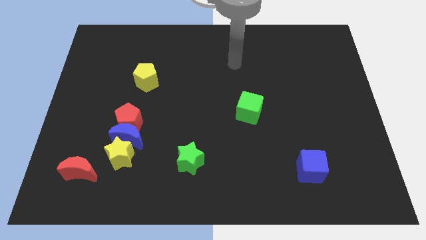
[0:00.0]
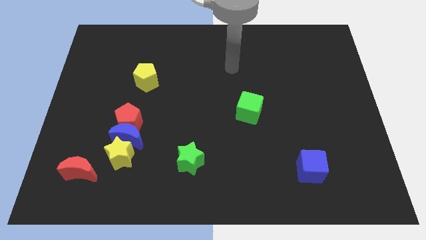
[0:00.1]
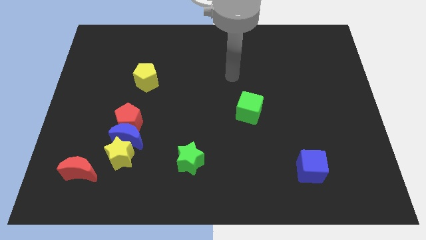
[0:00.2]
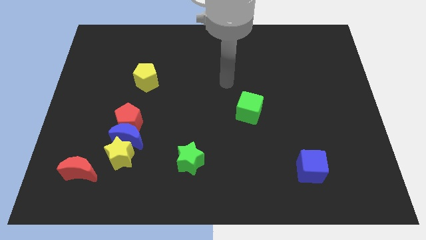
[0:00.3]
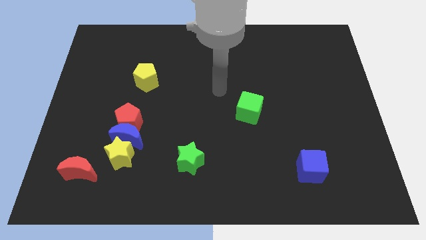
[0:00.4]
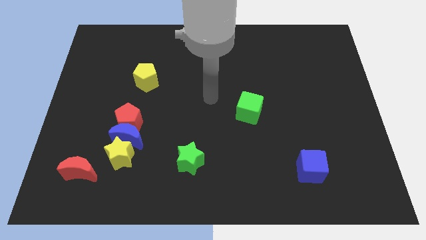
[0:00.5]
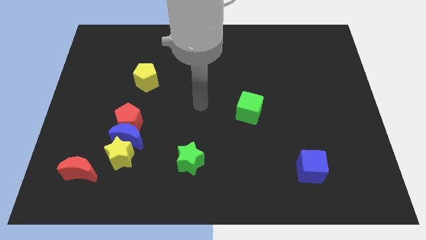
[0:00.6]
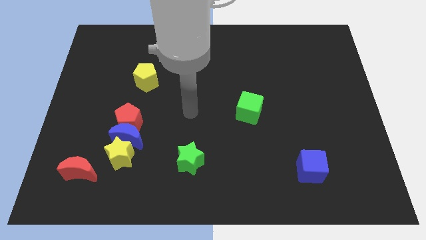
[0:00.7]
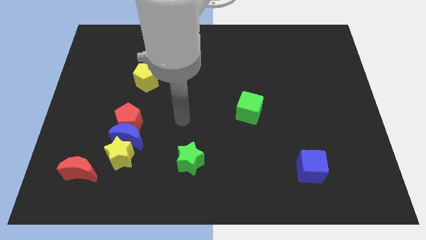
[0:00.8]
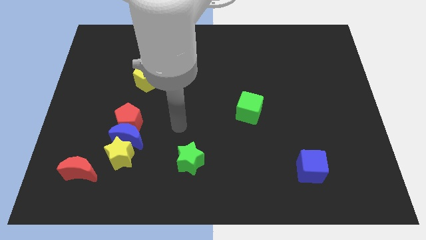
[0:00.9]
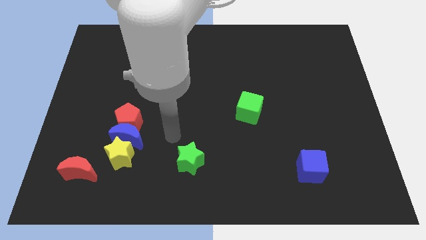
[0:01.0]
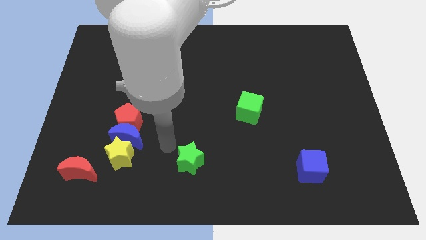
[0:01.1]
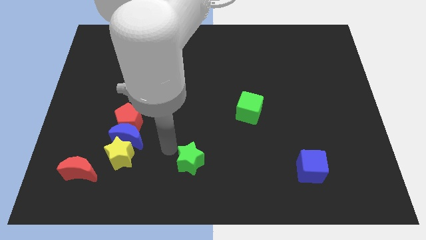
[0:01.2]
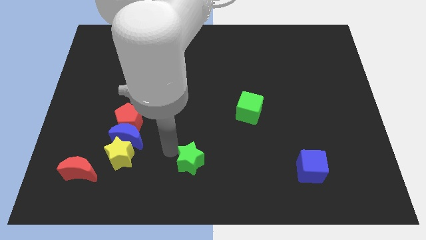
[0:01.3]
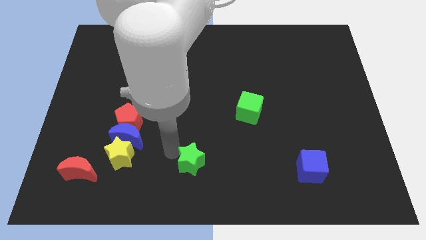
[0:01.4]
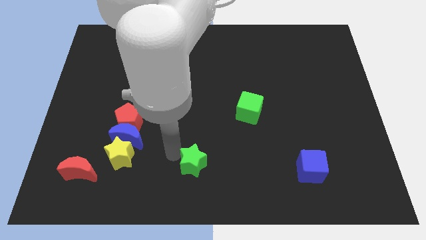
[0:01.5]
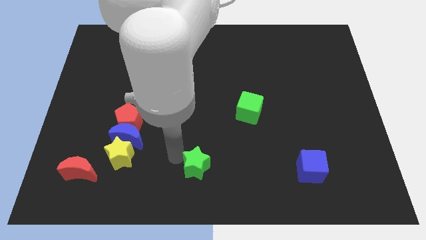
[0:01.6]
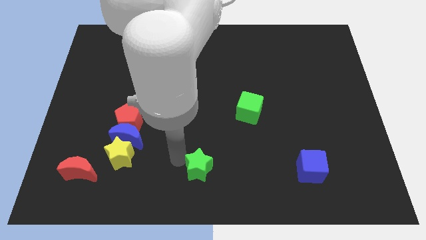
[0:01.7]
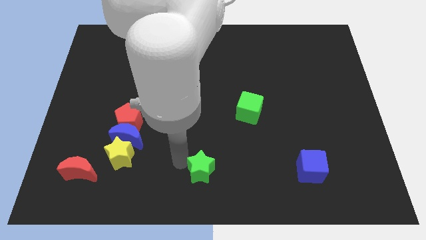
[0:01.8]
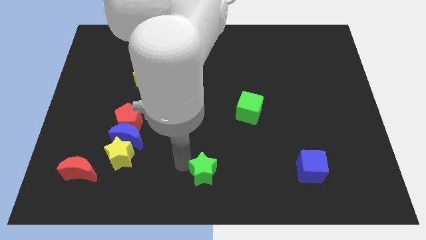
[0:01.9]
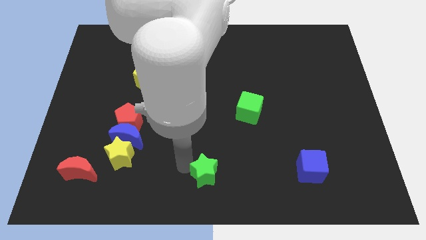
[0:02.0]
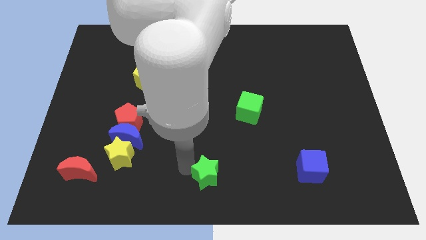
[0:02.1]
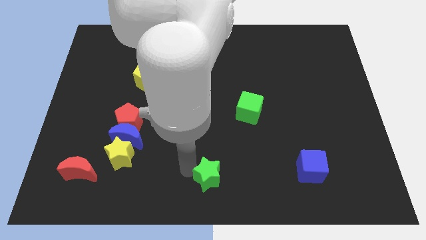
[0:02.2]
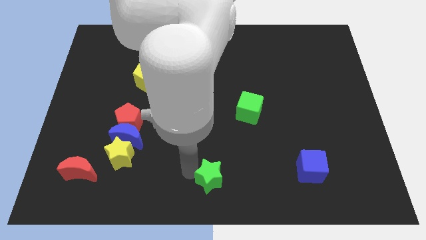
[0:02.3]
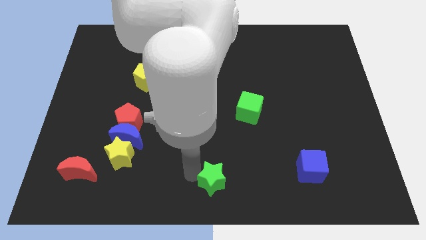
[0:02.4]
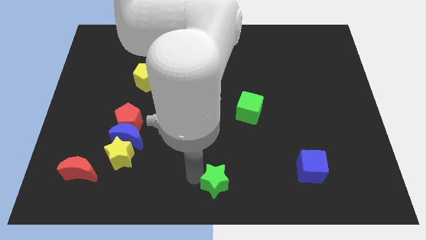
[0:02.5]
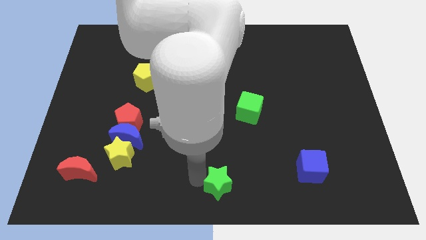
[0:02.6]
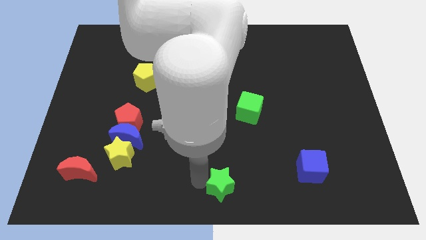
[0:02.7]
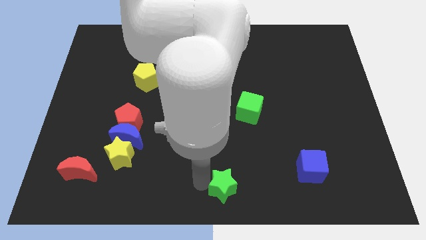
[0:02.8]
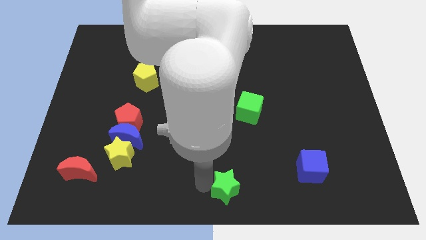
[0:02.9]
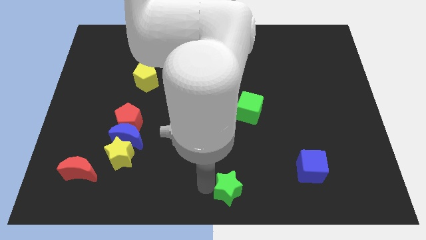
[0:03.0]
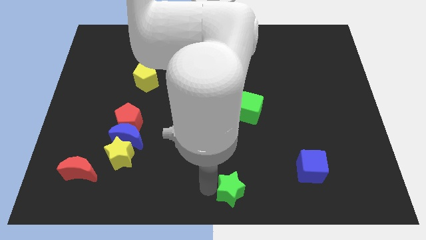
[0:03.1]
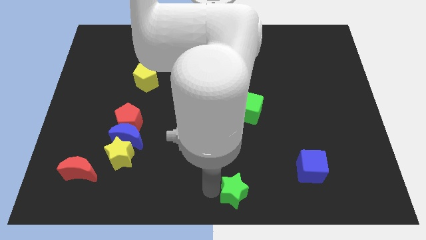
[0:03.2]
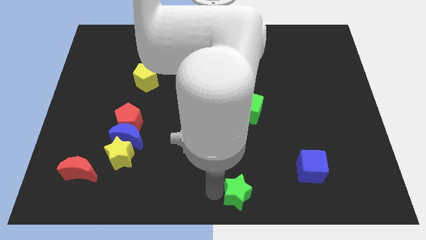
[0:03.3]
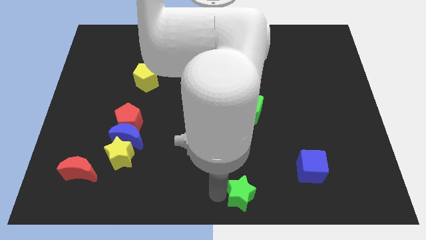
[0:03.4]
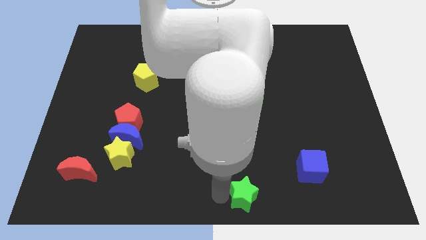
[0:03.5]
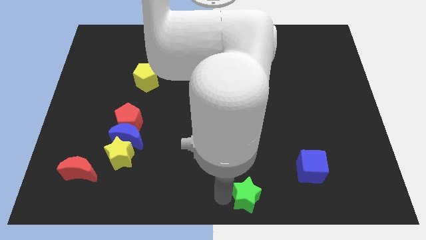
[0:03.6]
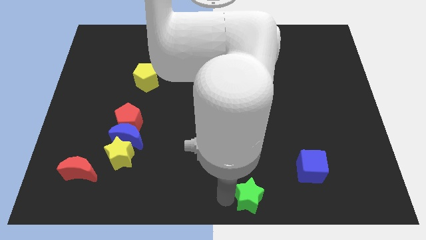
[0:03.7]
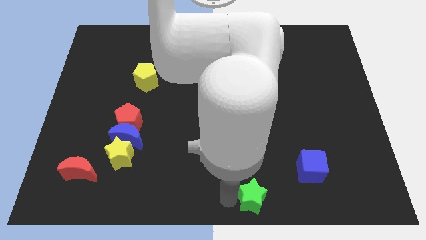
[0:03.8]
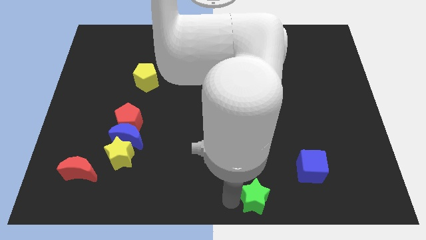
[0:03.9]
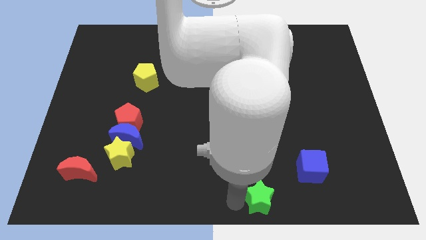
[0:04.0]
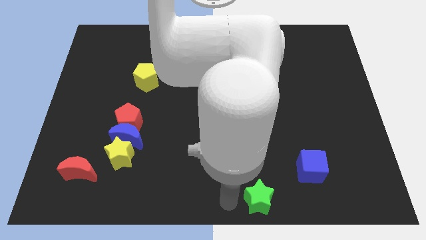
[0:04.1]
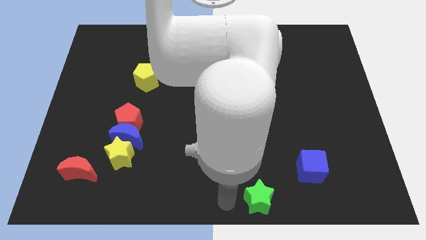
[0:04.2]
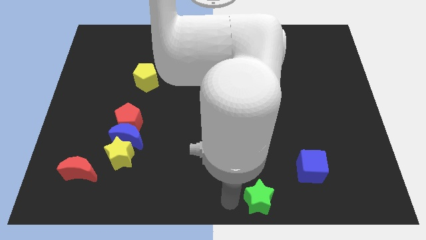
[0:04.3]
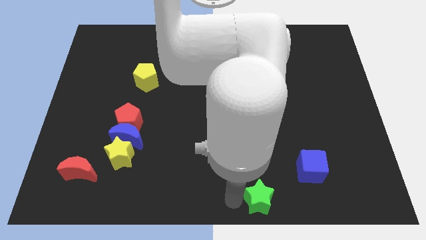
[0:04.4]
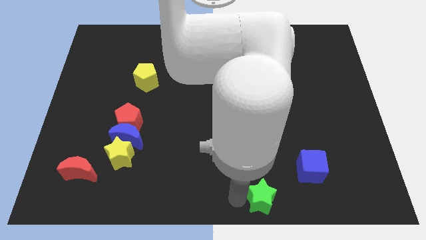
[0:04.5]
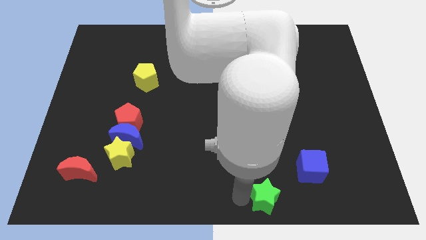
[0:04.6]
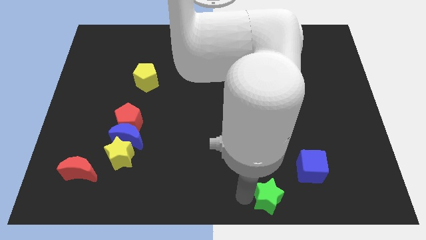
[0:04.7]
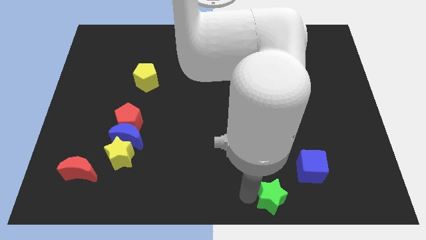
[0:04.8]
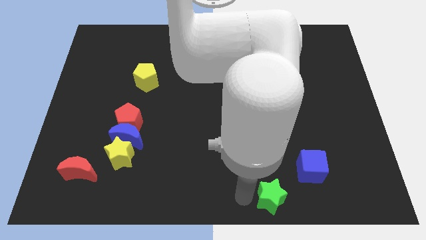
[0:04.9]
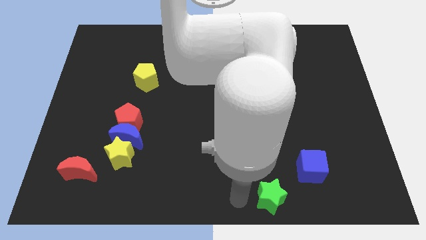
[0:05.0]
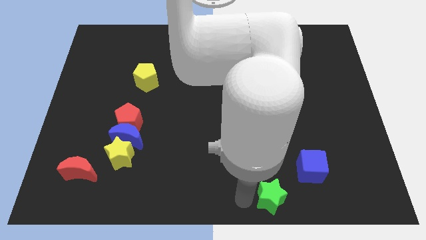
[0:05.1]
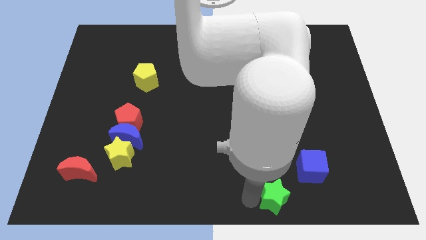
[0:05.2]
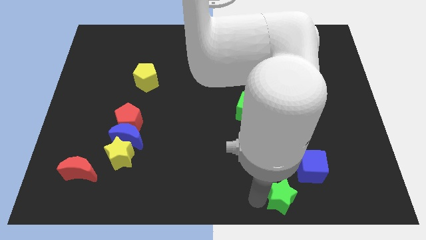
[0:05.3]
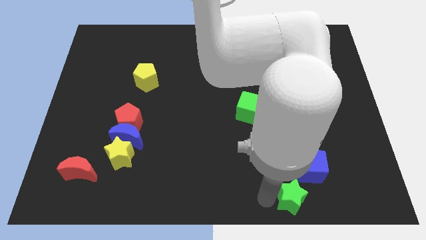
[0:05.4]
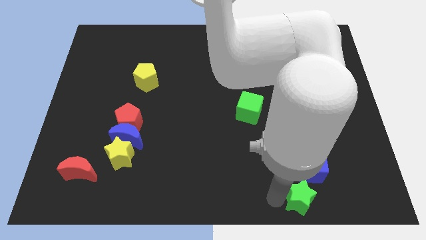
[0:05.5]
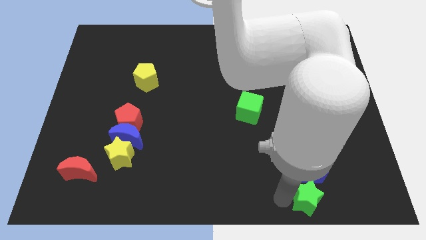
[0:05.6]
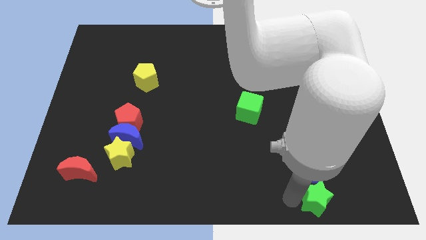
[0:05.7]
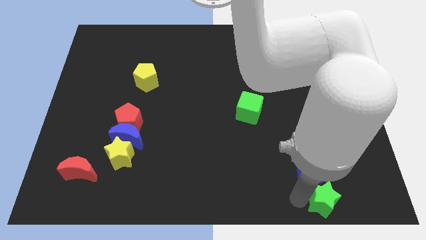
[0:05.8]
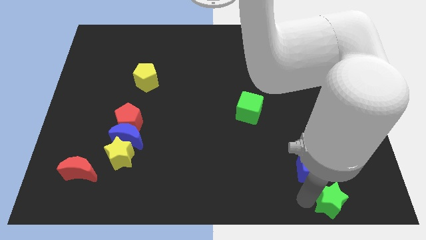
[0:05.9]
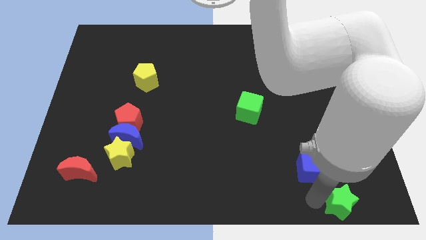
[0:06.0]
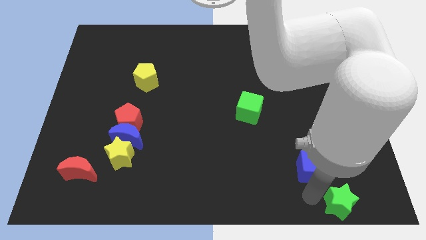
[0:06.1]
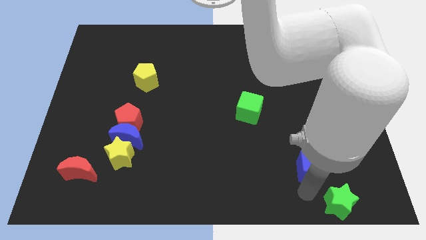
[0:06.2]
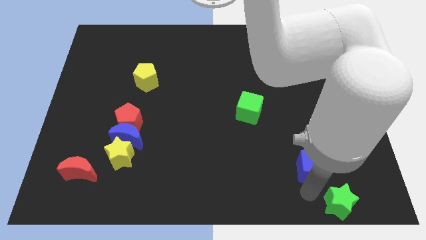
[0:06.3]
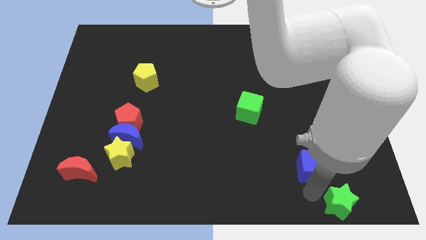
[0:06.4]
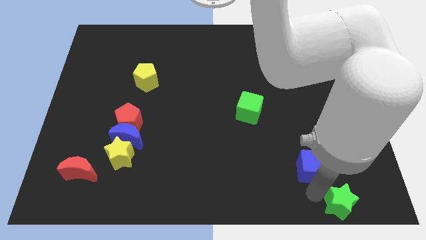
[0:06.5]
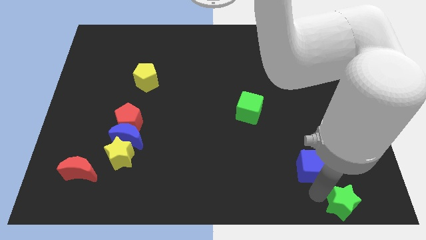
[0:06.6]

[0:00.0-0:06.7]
put the green star to the bottom right of the board
